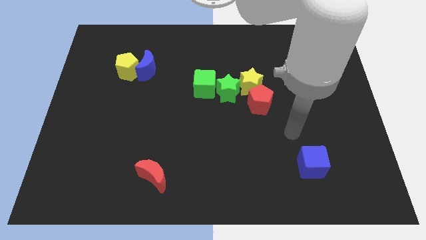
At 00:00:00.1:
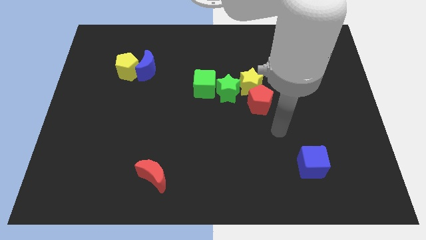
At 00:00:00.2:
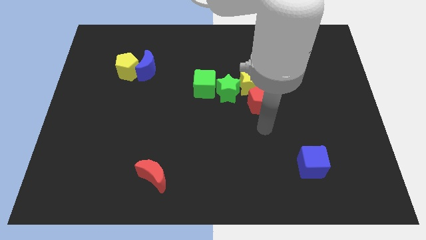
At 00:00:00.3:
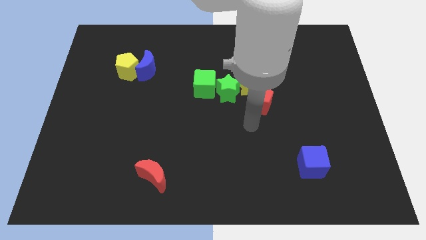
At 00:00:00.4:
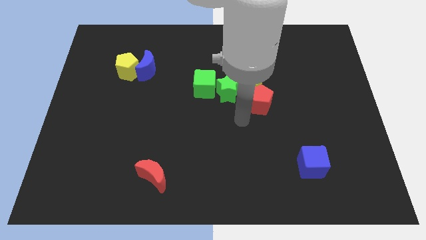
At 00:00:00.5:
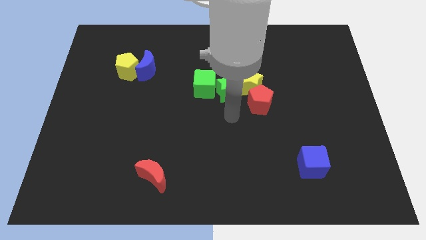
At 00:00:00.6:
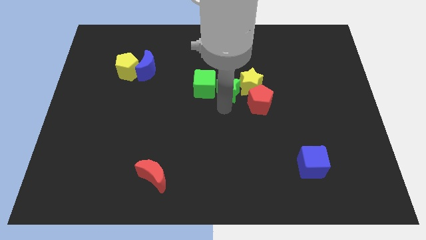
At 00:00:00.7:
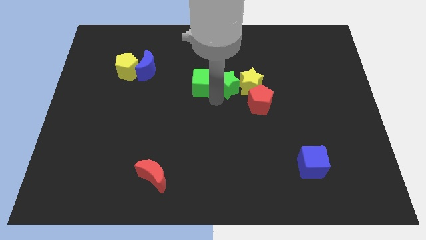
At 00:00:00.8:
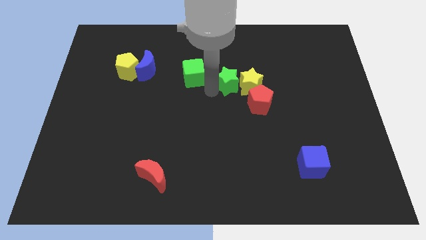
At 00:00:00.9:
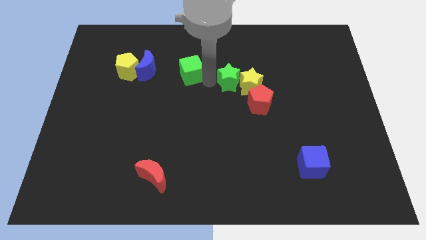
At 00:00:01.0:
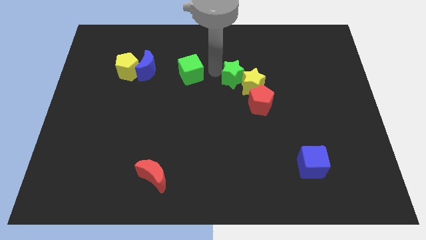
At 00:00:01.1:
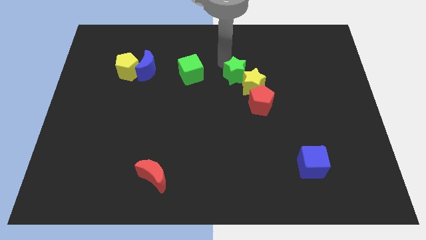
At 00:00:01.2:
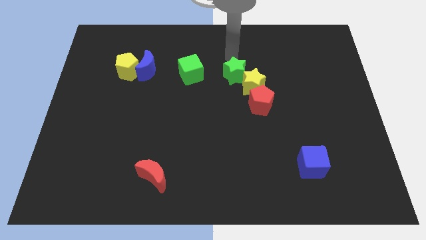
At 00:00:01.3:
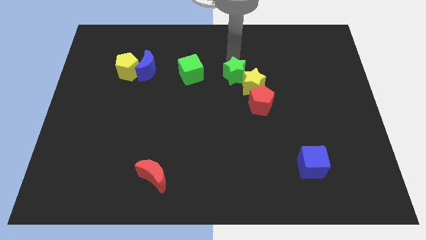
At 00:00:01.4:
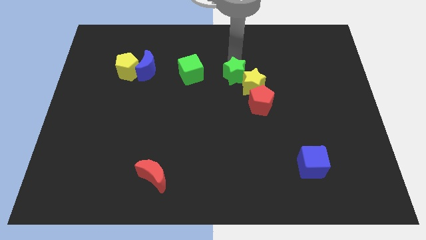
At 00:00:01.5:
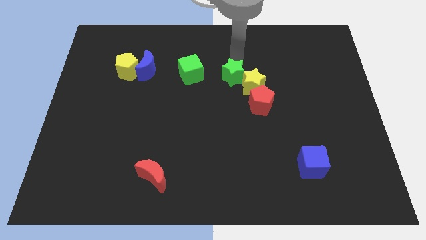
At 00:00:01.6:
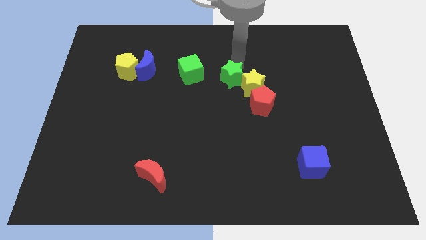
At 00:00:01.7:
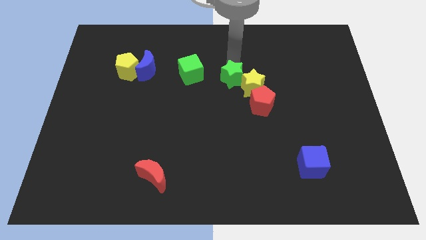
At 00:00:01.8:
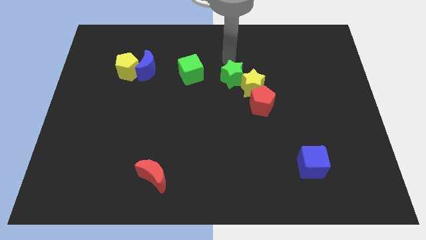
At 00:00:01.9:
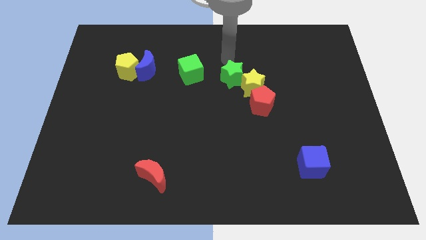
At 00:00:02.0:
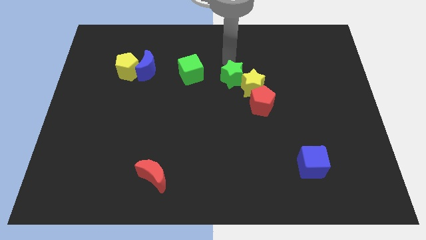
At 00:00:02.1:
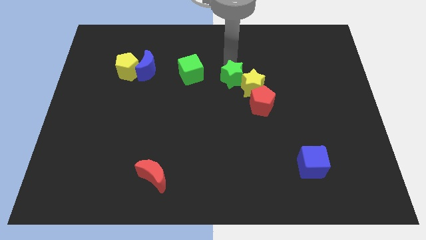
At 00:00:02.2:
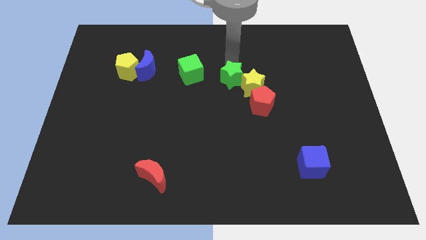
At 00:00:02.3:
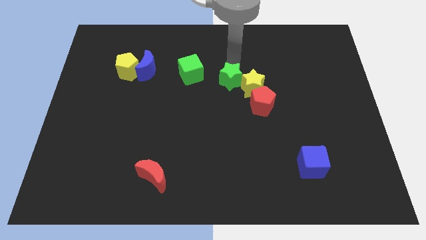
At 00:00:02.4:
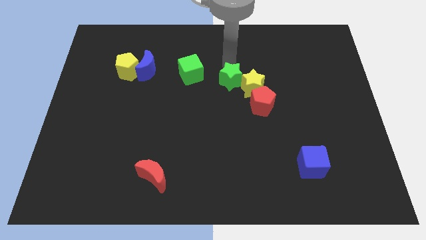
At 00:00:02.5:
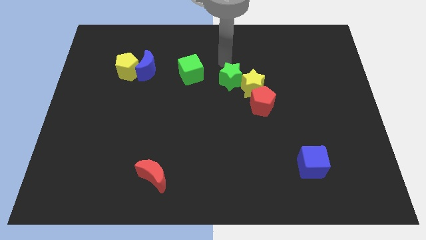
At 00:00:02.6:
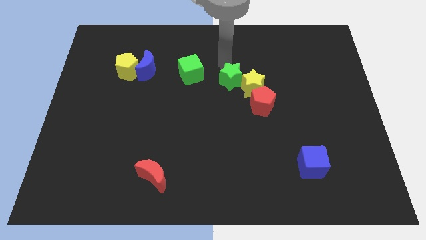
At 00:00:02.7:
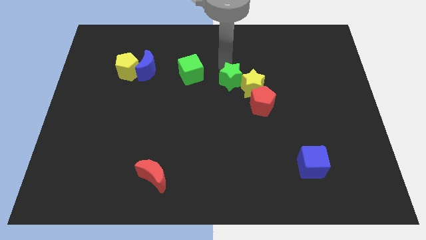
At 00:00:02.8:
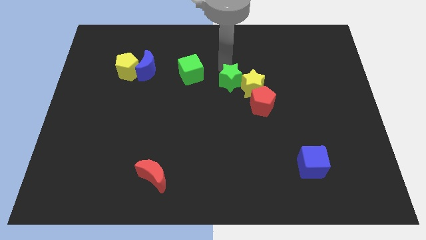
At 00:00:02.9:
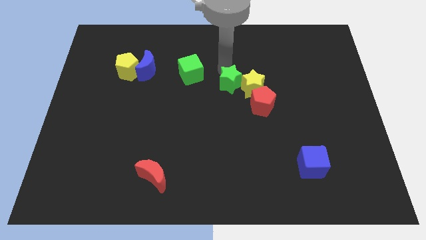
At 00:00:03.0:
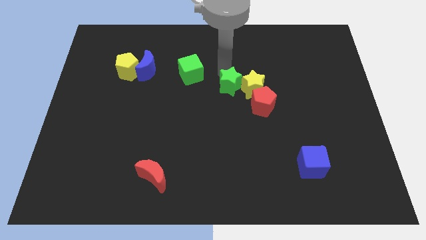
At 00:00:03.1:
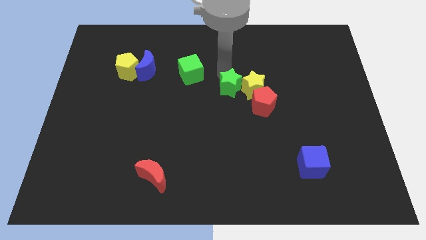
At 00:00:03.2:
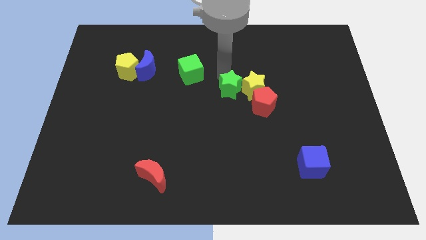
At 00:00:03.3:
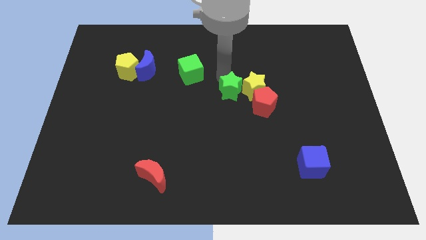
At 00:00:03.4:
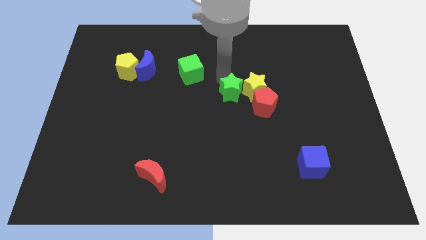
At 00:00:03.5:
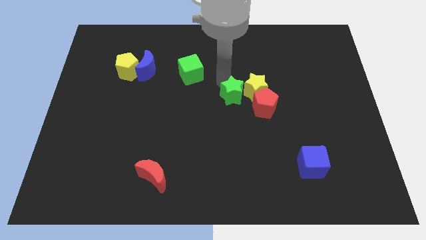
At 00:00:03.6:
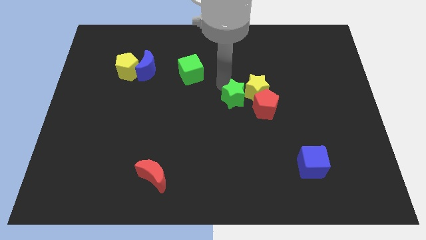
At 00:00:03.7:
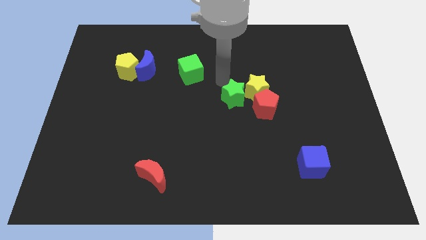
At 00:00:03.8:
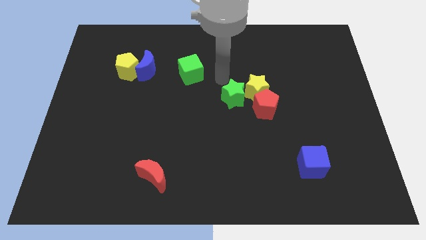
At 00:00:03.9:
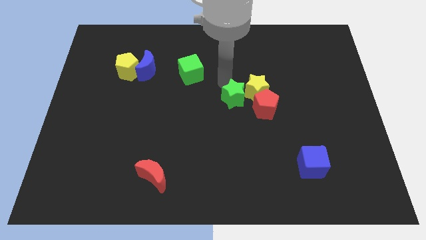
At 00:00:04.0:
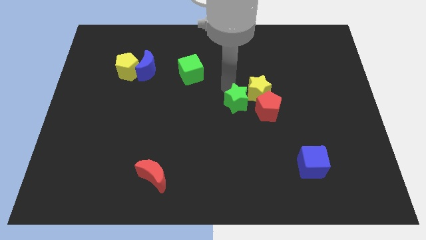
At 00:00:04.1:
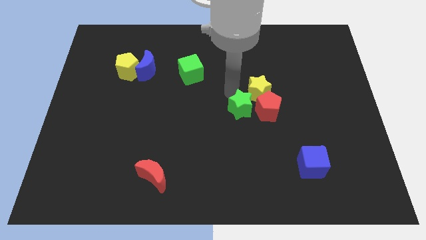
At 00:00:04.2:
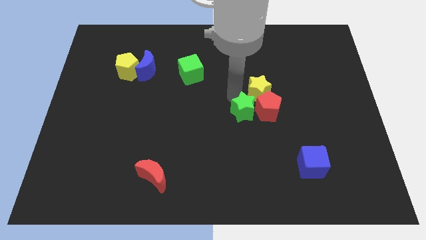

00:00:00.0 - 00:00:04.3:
slide the green star downwards and to the right a little bit

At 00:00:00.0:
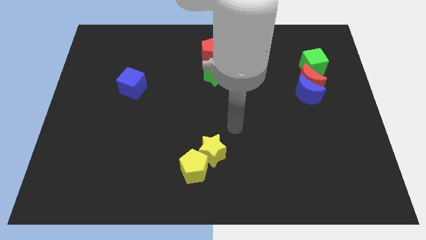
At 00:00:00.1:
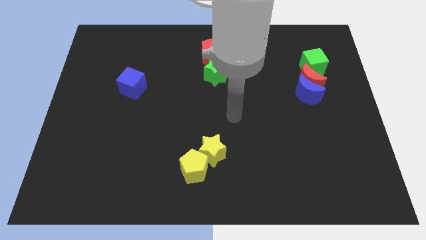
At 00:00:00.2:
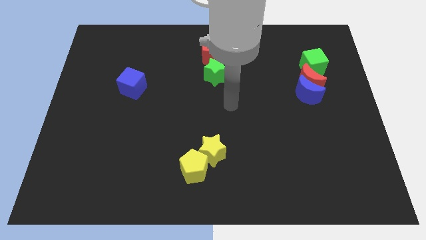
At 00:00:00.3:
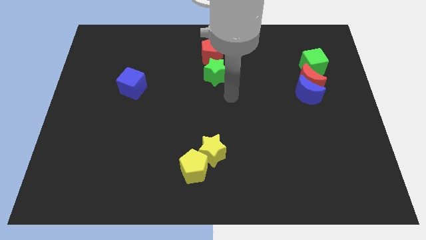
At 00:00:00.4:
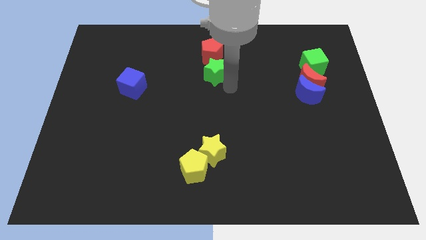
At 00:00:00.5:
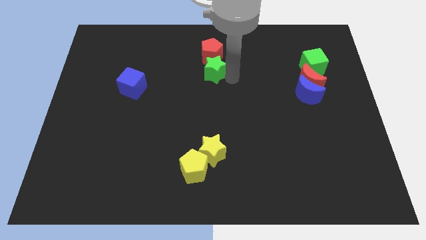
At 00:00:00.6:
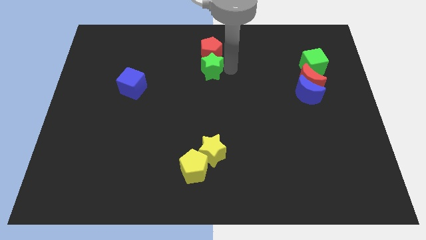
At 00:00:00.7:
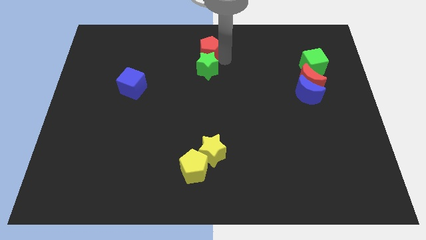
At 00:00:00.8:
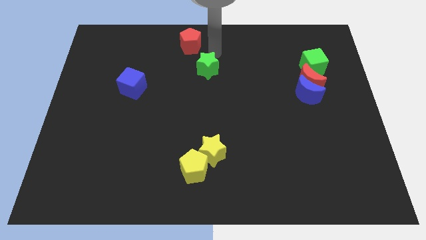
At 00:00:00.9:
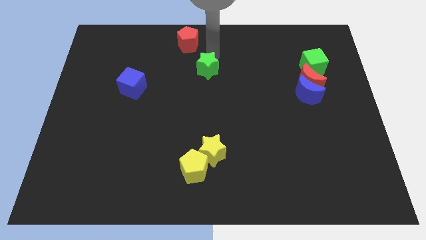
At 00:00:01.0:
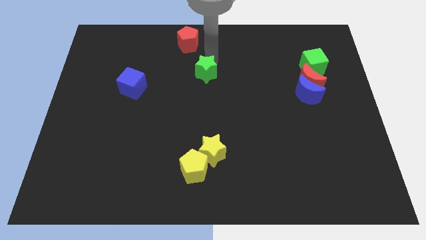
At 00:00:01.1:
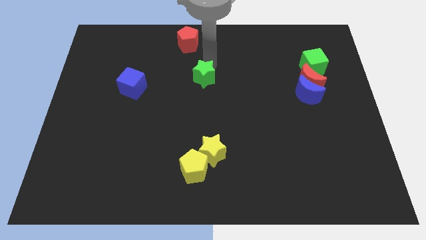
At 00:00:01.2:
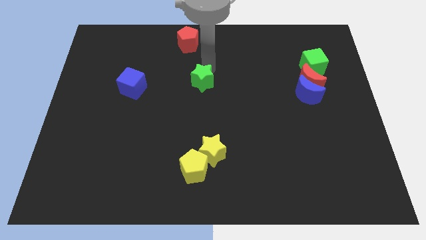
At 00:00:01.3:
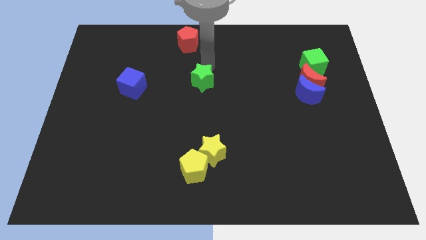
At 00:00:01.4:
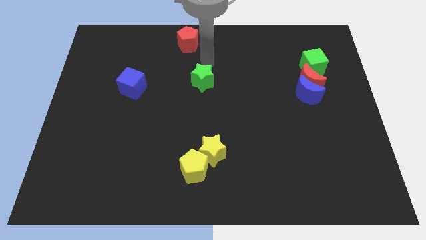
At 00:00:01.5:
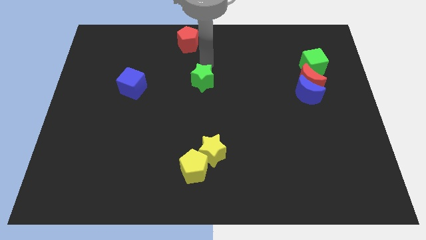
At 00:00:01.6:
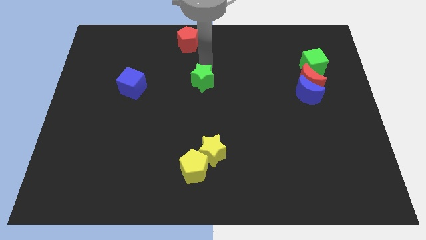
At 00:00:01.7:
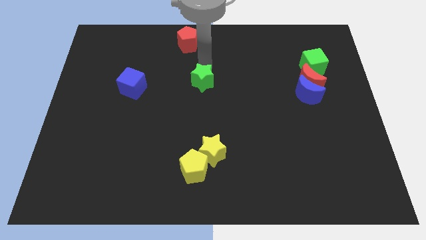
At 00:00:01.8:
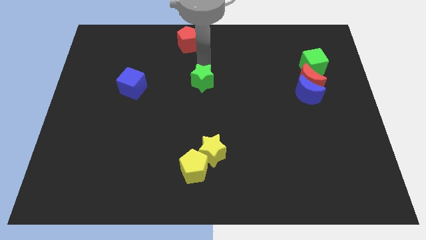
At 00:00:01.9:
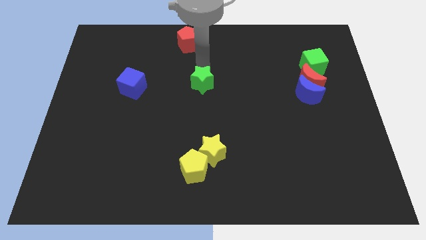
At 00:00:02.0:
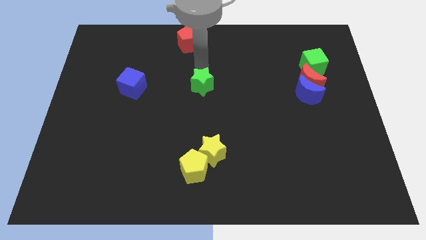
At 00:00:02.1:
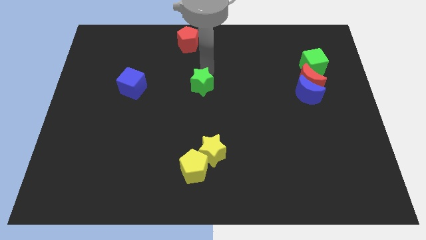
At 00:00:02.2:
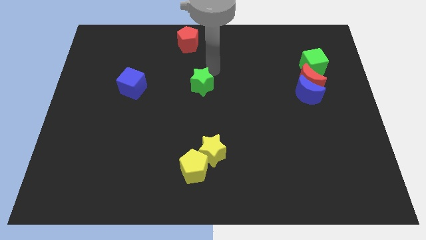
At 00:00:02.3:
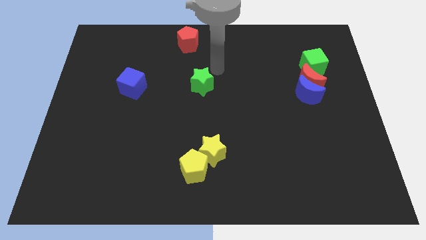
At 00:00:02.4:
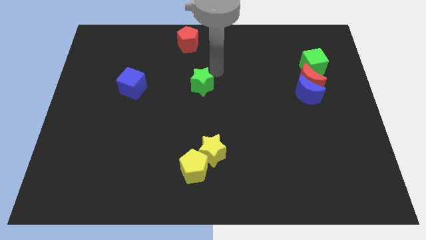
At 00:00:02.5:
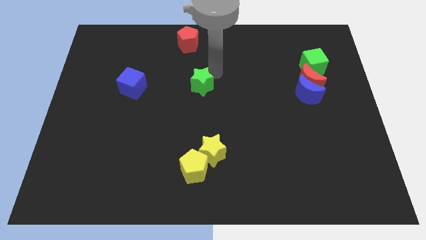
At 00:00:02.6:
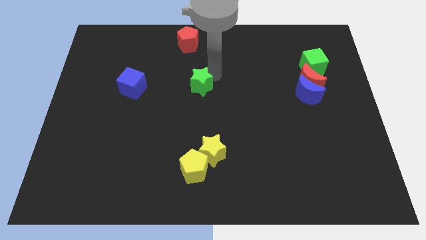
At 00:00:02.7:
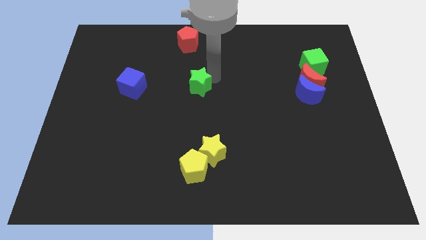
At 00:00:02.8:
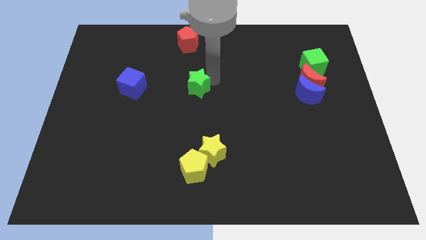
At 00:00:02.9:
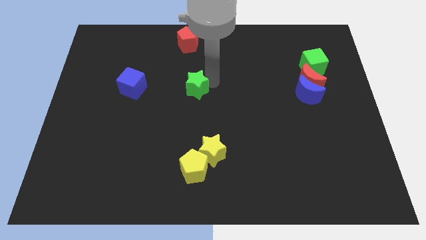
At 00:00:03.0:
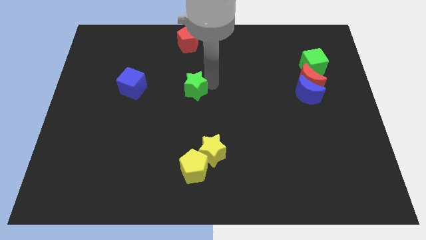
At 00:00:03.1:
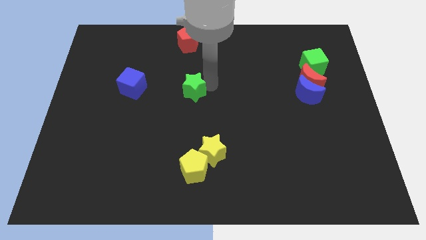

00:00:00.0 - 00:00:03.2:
slide the green star a little bit downwards and left diagonally

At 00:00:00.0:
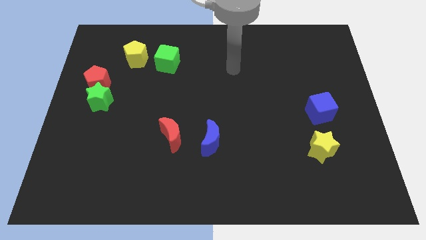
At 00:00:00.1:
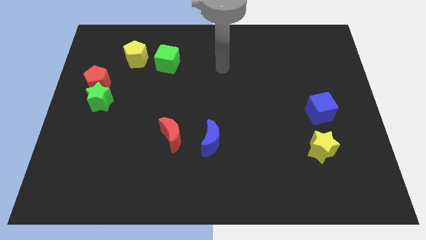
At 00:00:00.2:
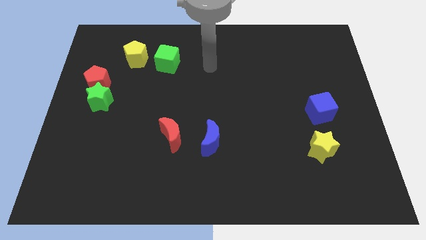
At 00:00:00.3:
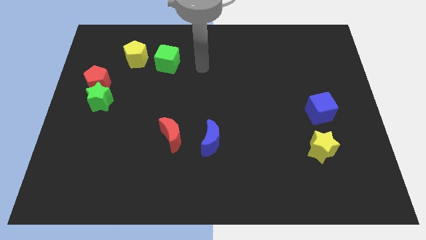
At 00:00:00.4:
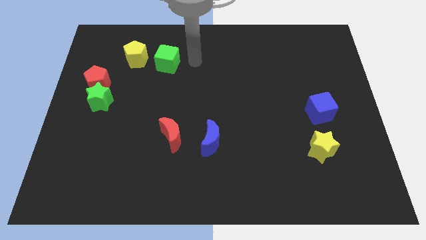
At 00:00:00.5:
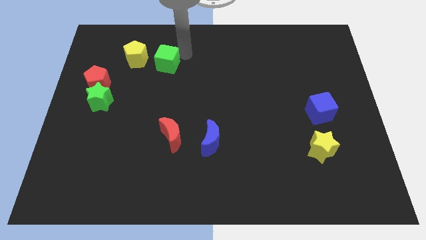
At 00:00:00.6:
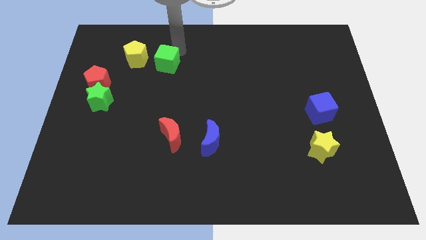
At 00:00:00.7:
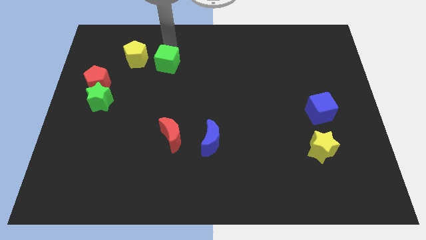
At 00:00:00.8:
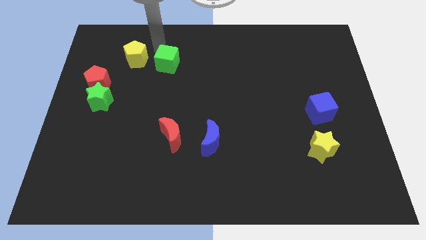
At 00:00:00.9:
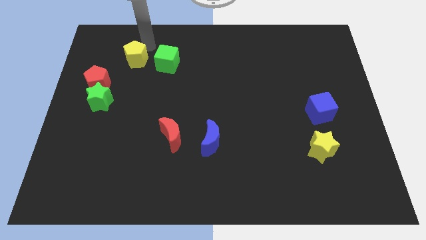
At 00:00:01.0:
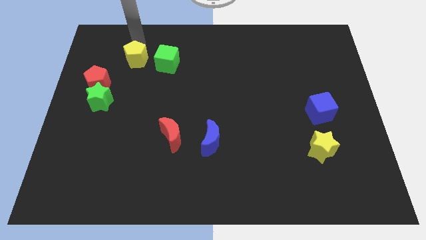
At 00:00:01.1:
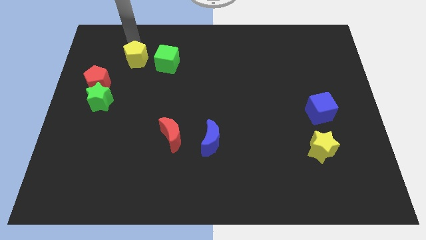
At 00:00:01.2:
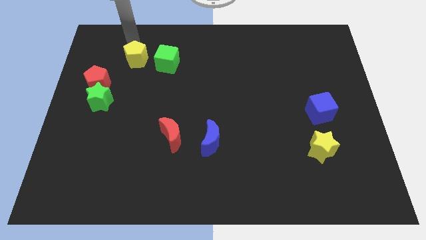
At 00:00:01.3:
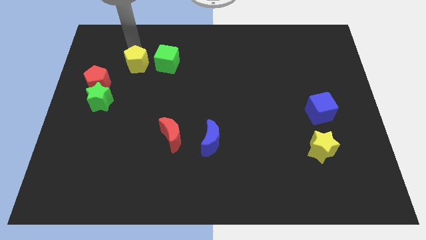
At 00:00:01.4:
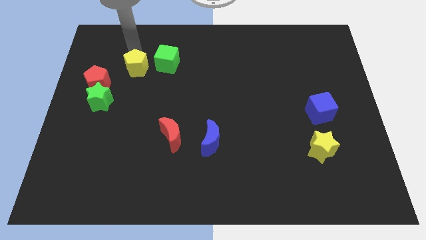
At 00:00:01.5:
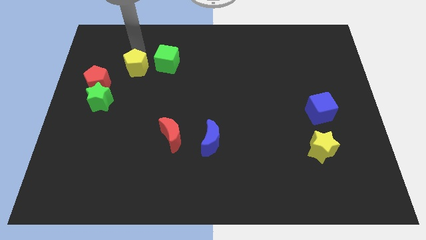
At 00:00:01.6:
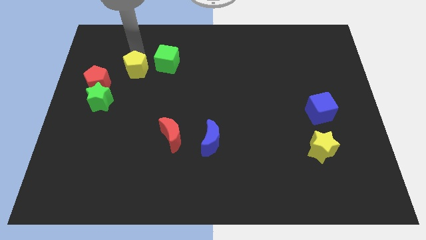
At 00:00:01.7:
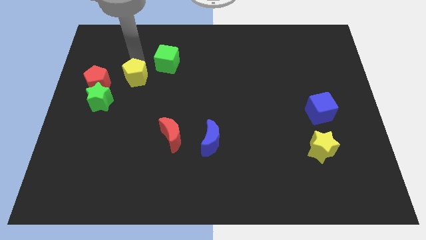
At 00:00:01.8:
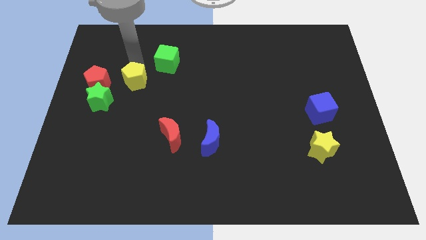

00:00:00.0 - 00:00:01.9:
slightly slide the yellow pentagon down
